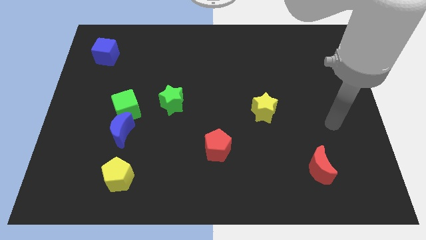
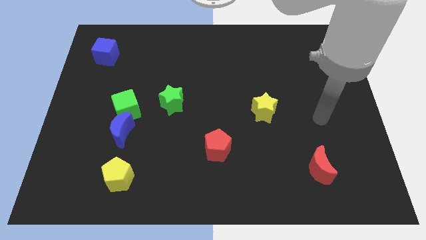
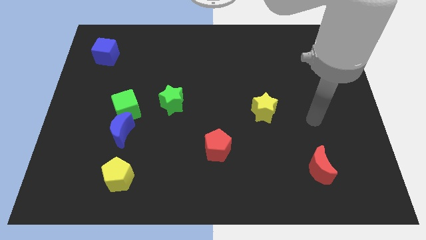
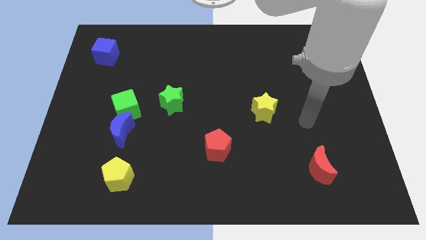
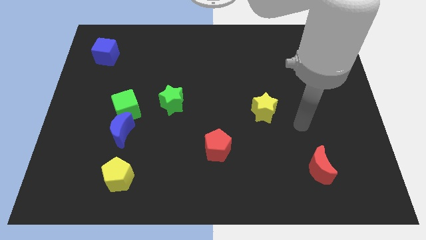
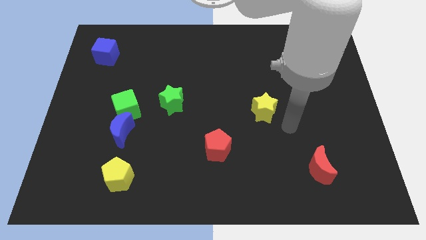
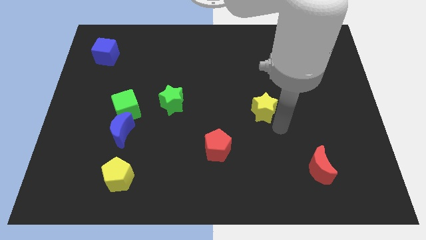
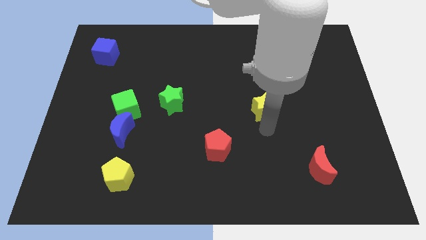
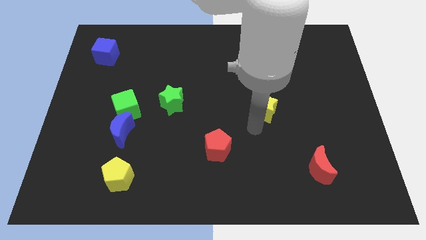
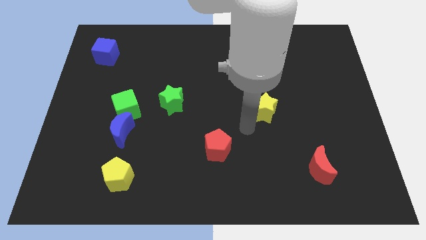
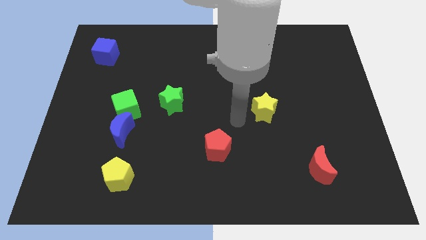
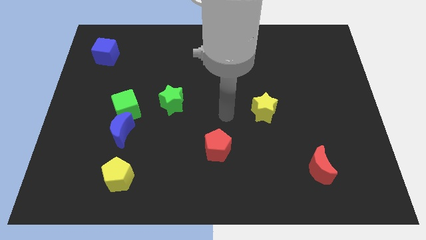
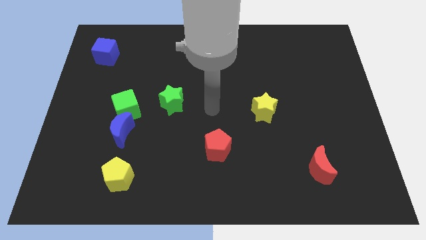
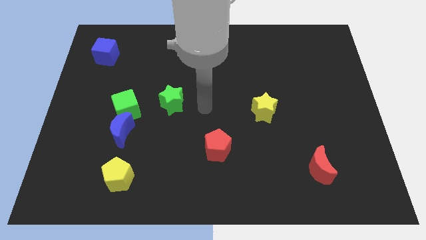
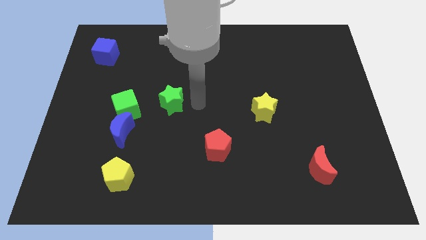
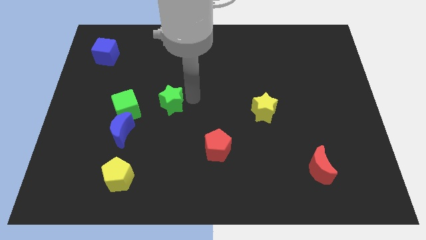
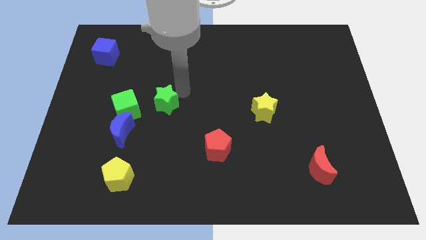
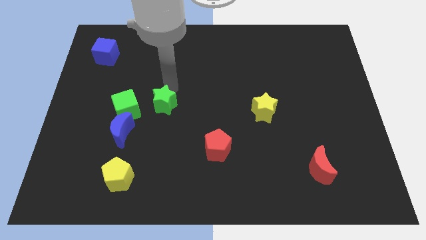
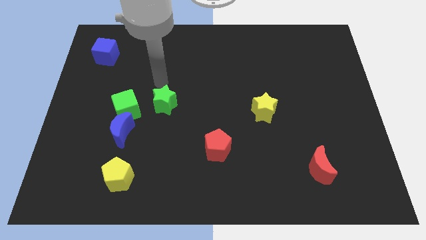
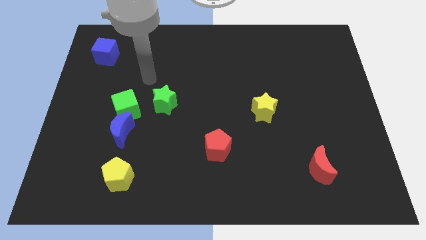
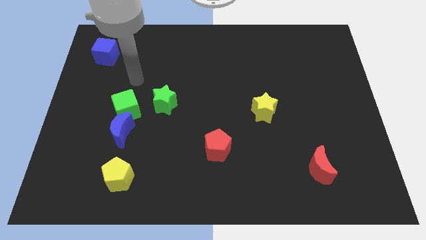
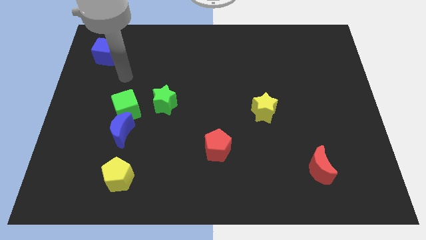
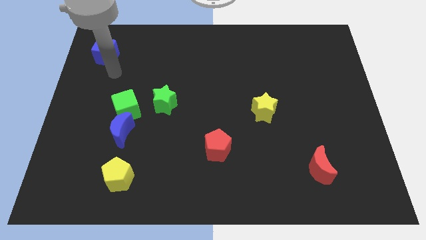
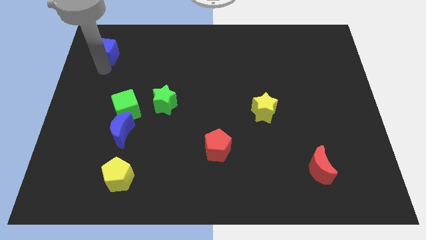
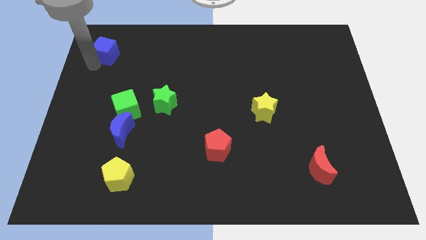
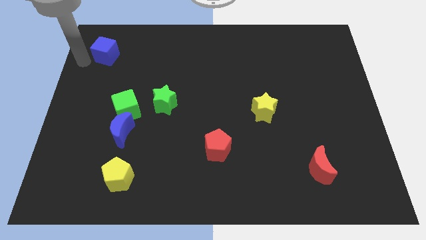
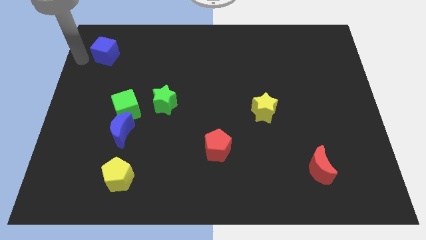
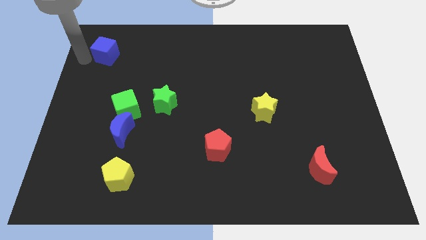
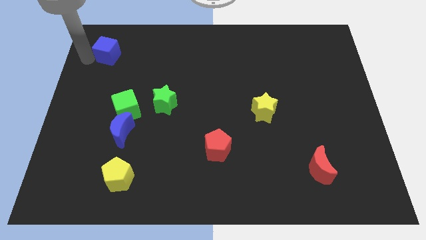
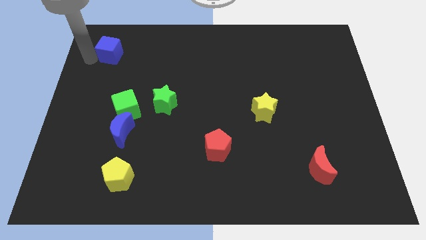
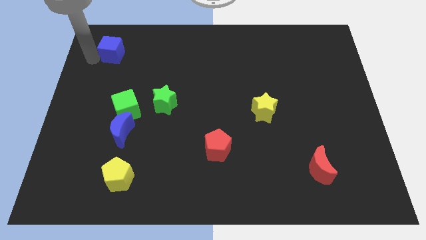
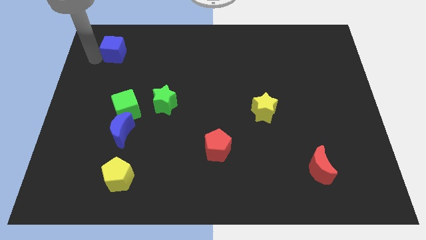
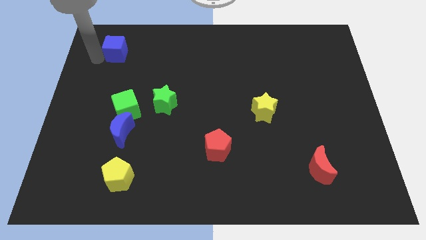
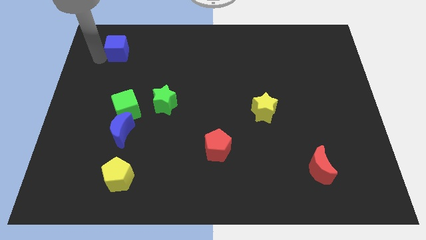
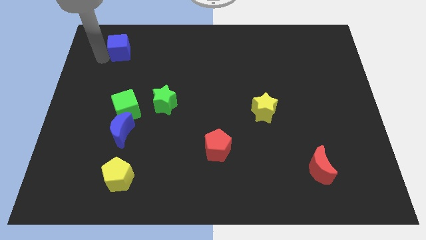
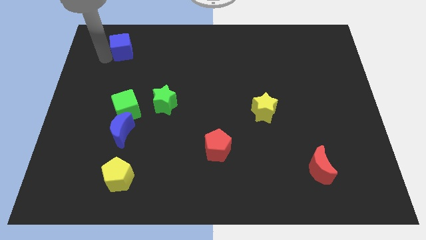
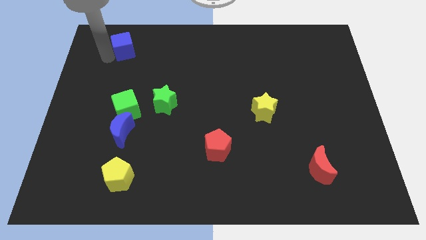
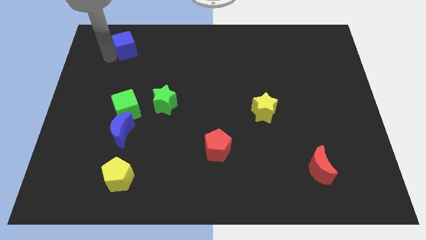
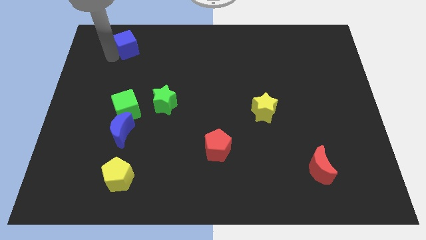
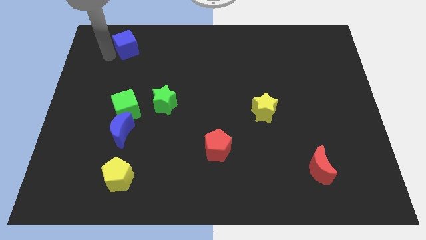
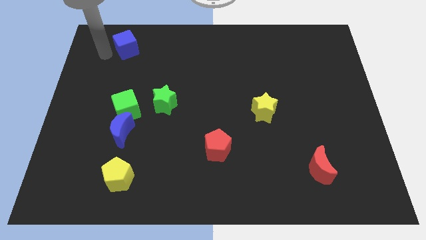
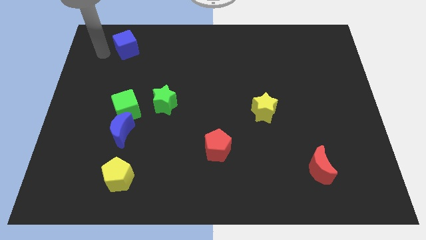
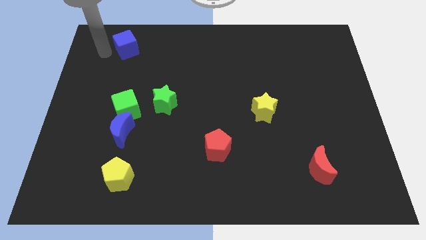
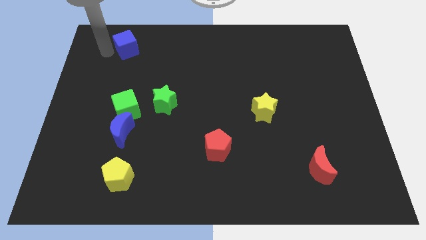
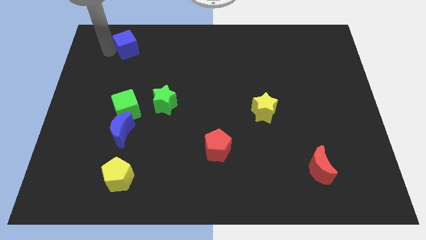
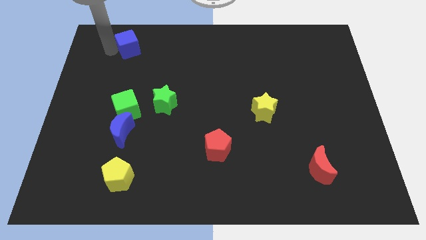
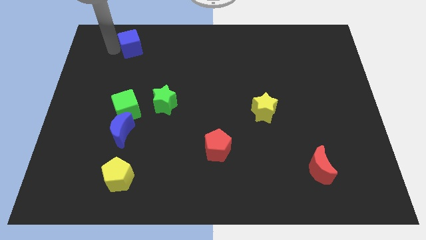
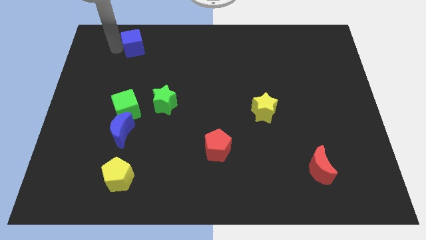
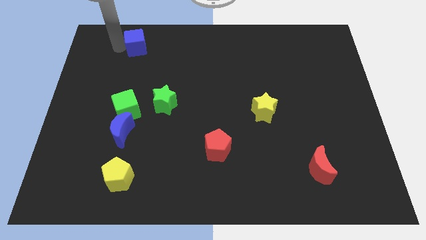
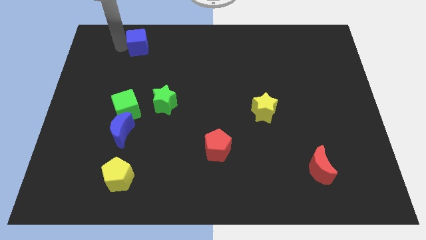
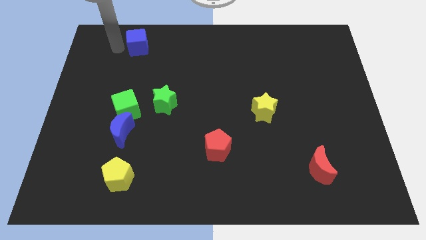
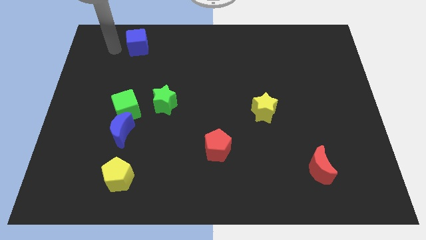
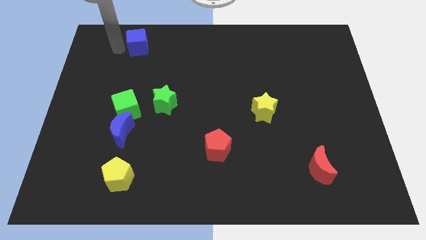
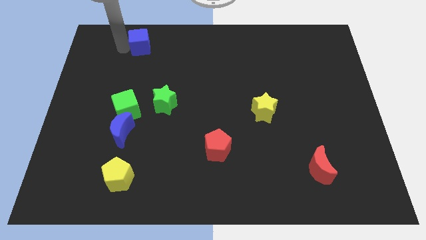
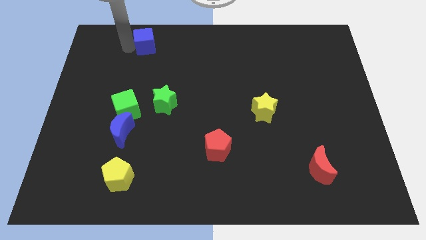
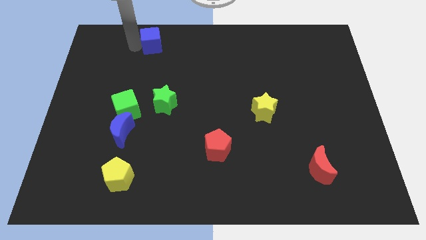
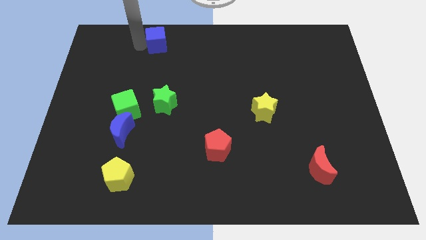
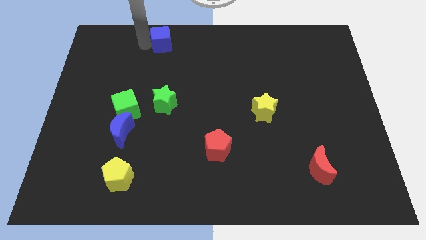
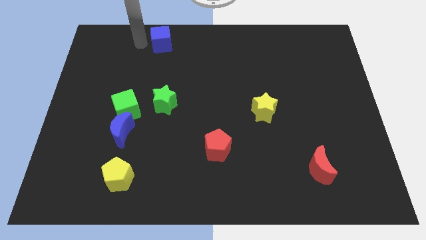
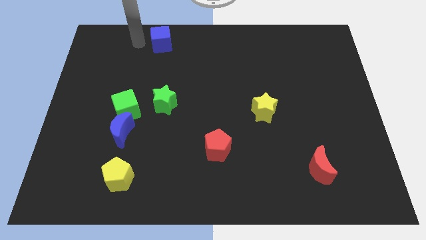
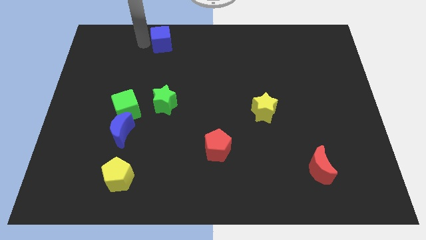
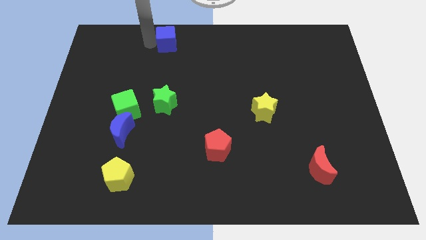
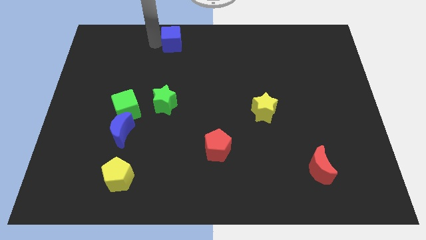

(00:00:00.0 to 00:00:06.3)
slide the blue cube to the towards your base
